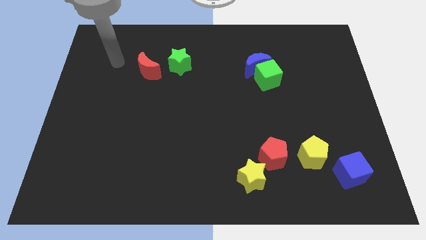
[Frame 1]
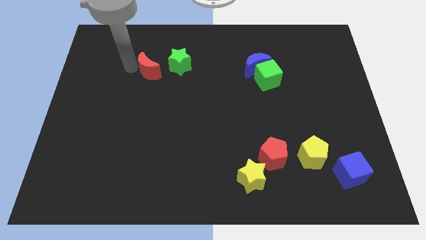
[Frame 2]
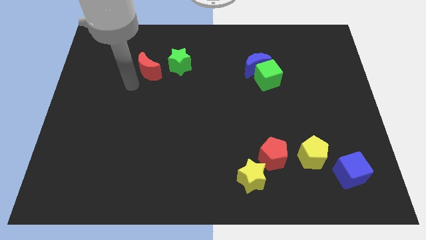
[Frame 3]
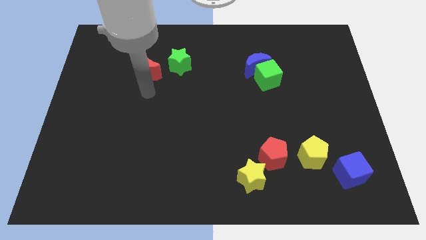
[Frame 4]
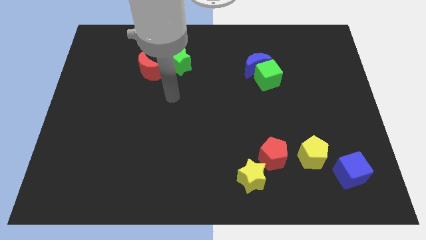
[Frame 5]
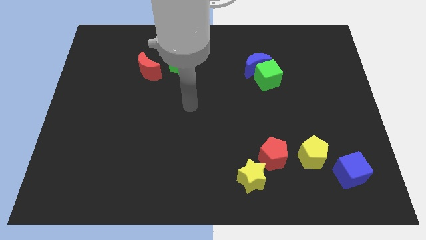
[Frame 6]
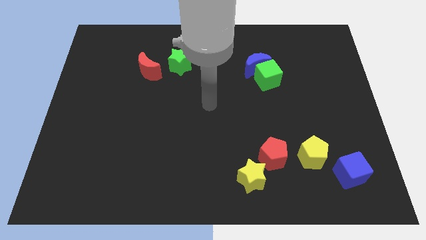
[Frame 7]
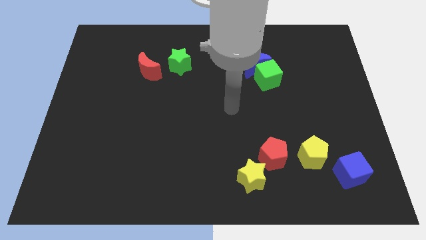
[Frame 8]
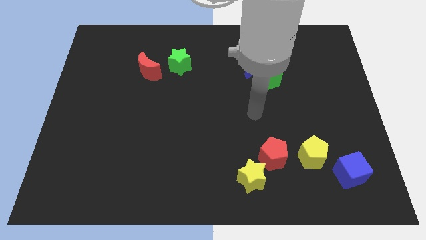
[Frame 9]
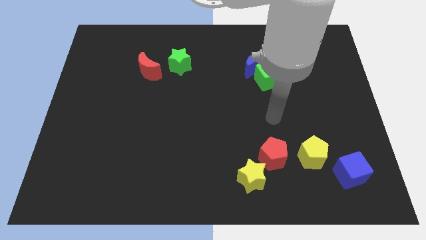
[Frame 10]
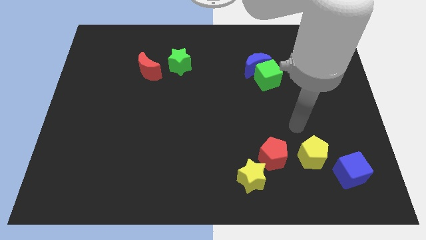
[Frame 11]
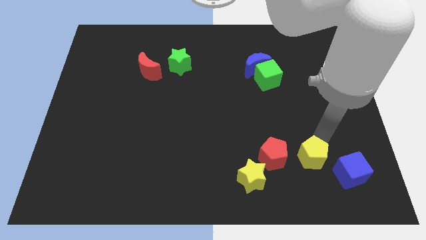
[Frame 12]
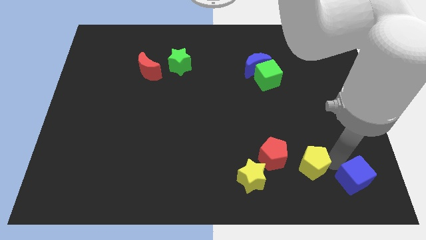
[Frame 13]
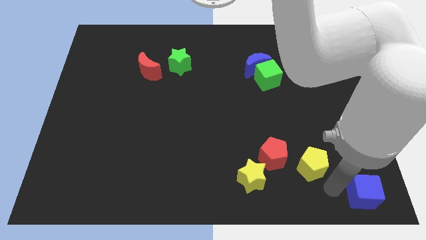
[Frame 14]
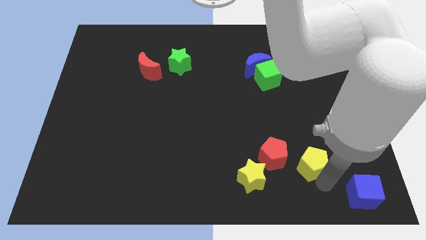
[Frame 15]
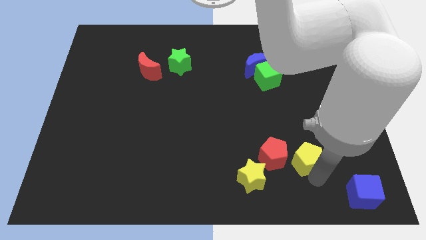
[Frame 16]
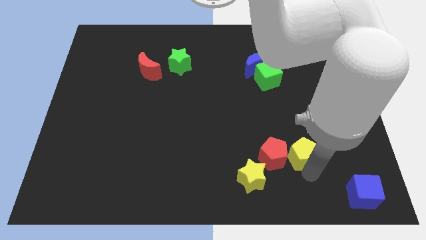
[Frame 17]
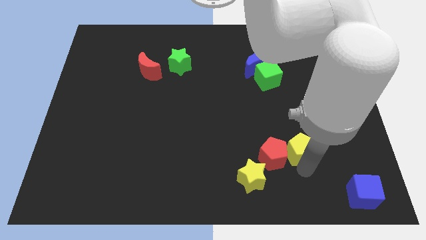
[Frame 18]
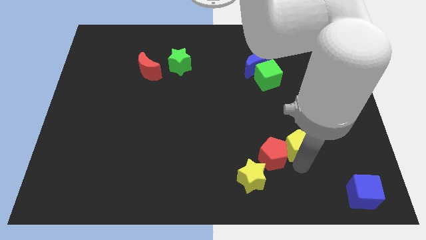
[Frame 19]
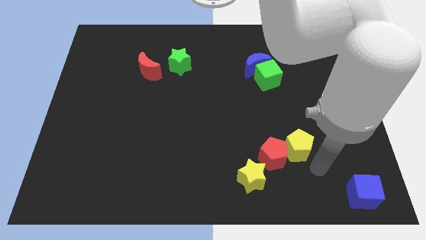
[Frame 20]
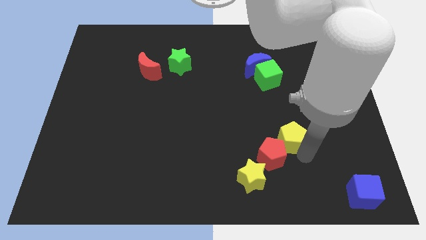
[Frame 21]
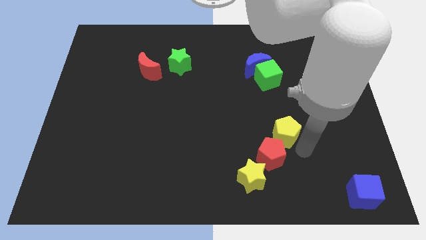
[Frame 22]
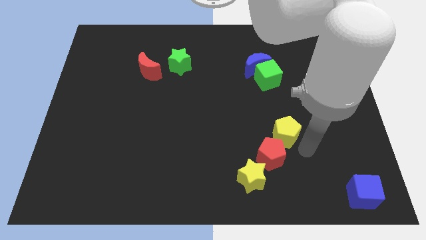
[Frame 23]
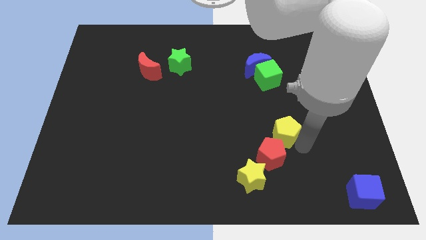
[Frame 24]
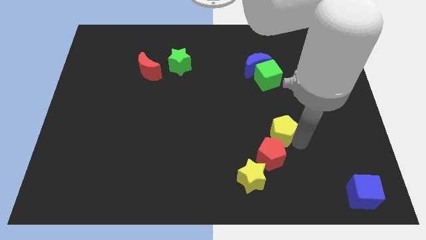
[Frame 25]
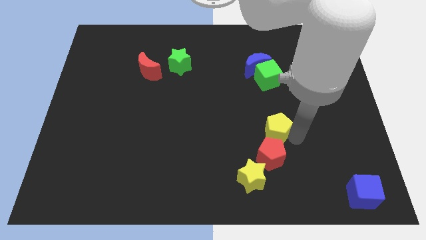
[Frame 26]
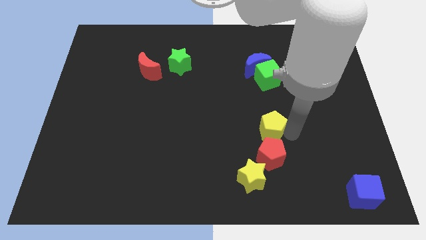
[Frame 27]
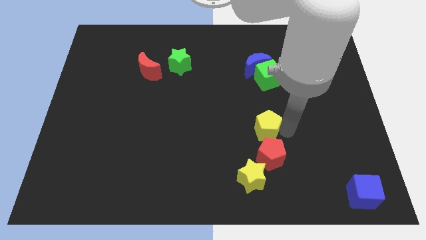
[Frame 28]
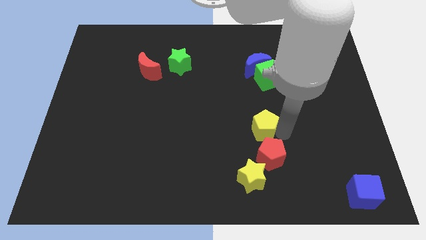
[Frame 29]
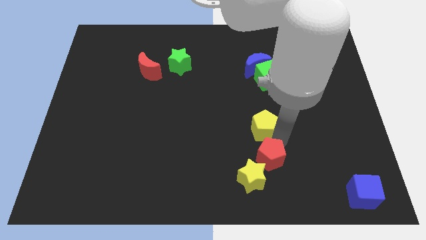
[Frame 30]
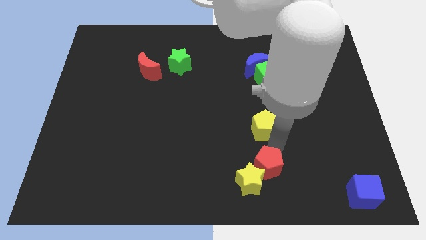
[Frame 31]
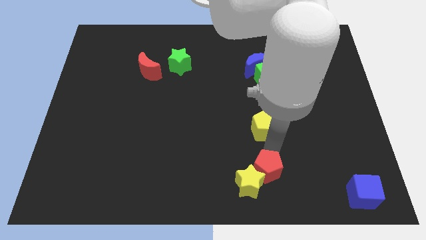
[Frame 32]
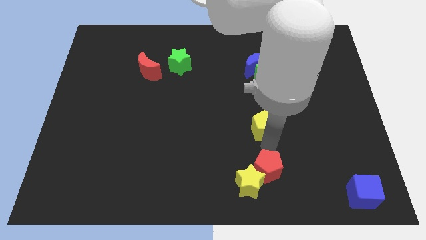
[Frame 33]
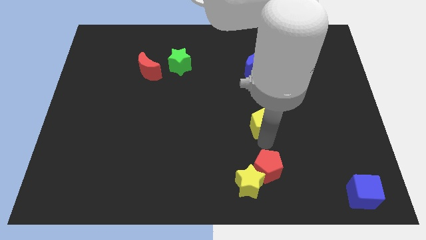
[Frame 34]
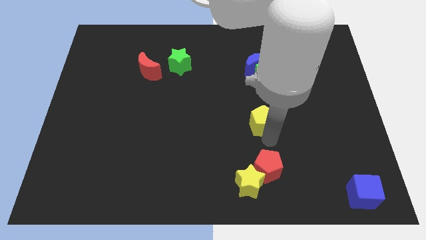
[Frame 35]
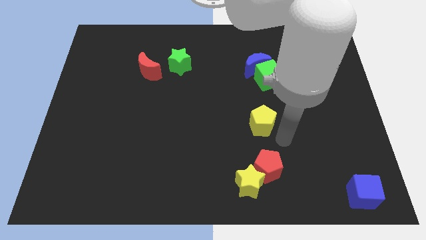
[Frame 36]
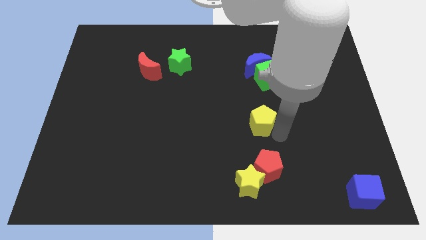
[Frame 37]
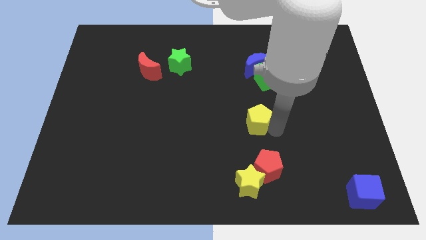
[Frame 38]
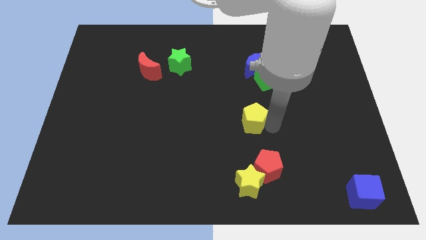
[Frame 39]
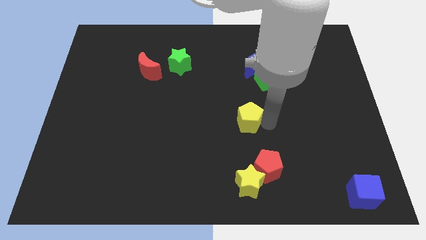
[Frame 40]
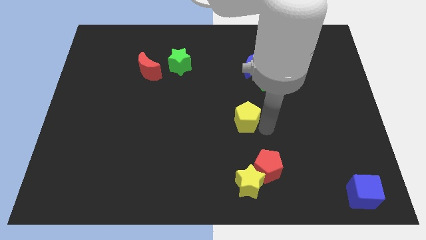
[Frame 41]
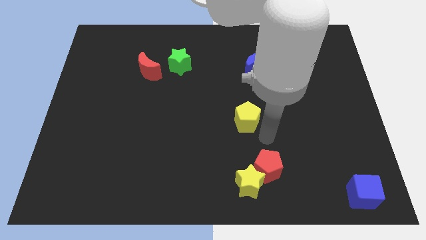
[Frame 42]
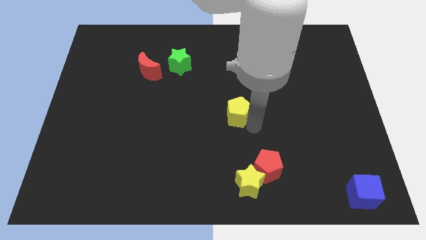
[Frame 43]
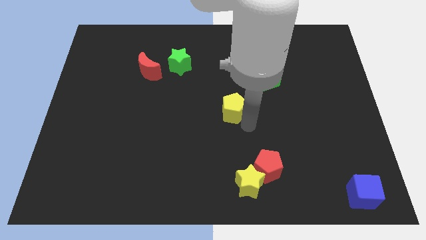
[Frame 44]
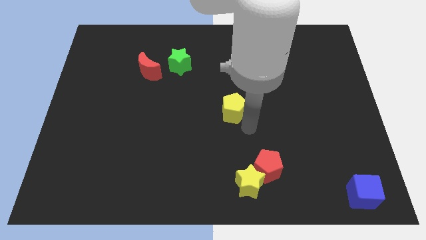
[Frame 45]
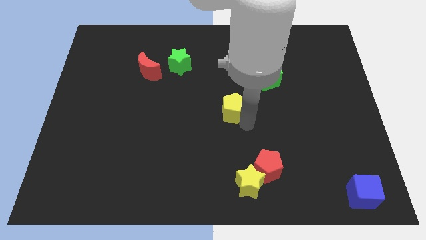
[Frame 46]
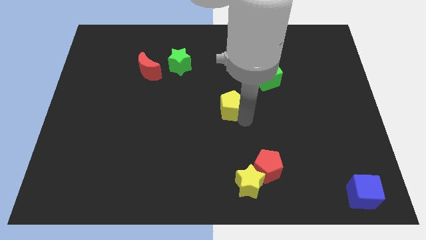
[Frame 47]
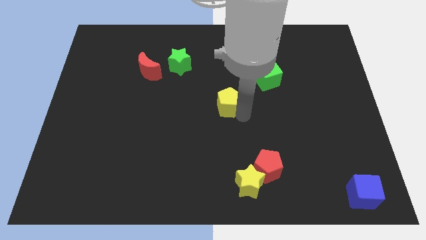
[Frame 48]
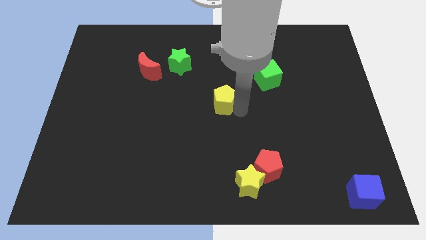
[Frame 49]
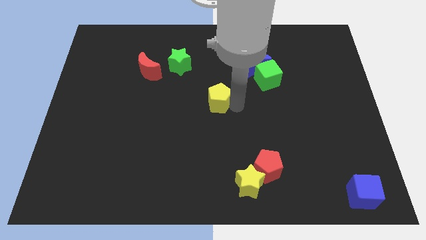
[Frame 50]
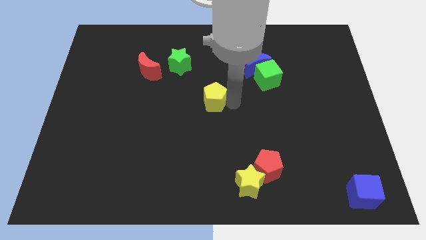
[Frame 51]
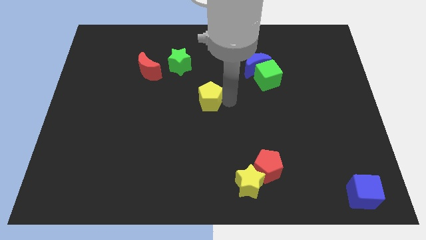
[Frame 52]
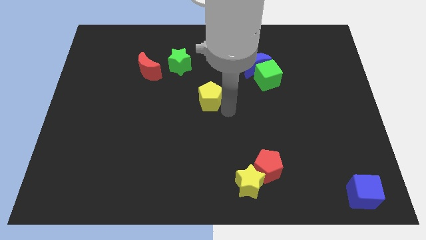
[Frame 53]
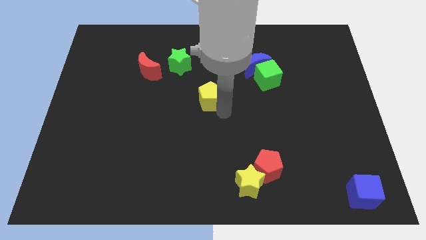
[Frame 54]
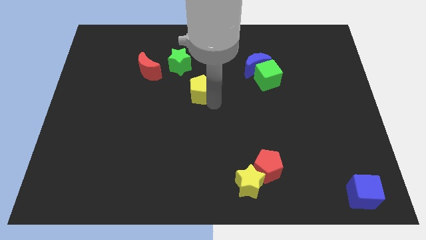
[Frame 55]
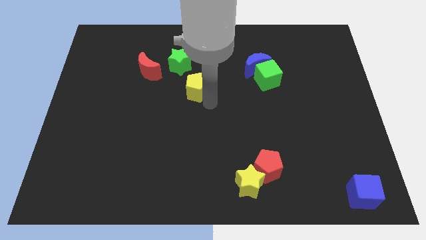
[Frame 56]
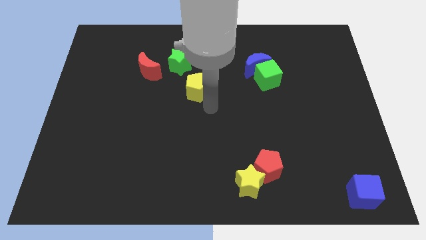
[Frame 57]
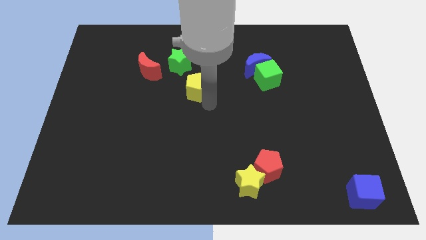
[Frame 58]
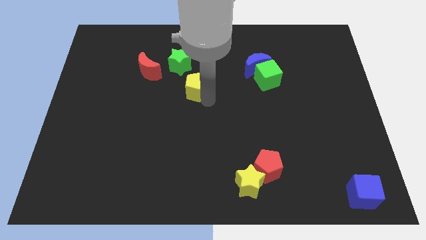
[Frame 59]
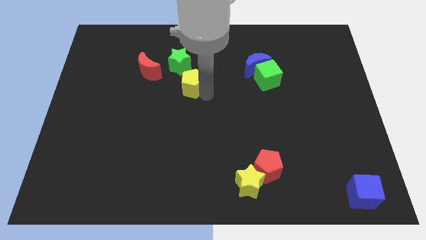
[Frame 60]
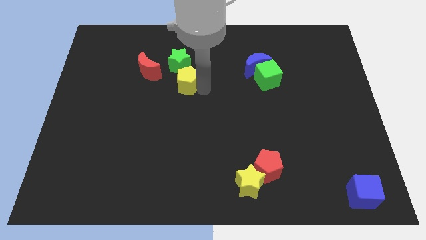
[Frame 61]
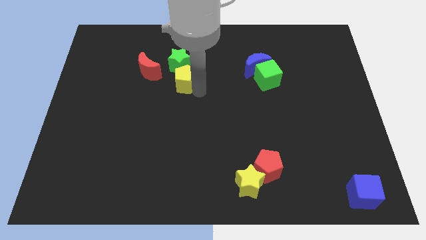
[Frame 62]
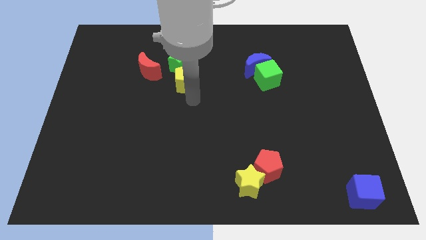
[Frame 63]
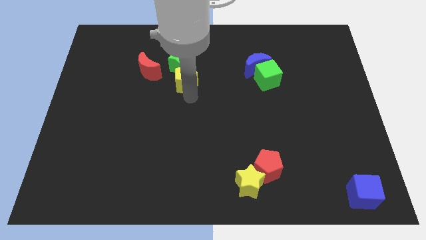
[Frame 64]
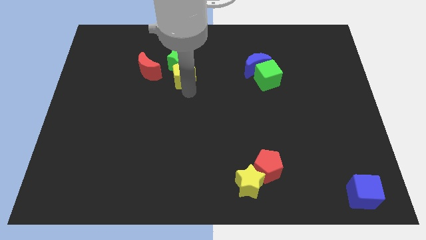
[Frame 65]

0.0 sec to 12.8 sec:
move the yellow pentagon next to the green star

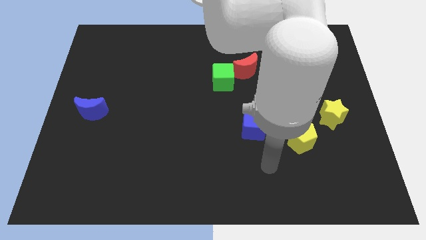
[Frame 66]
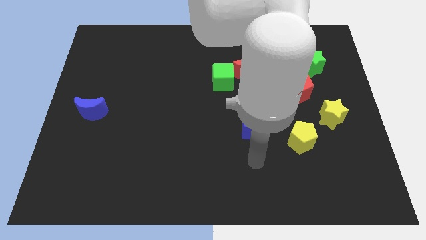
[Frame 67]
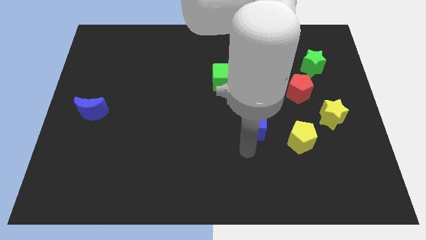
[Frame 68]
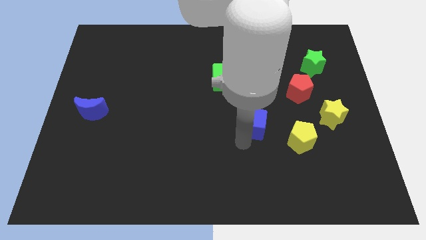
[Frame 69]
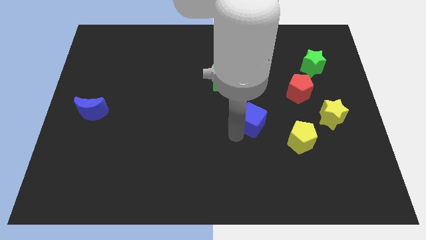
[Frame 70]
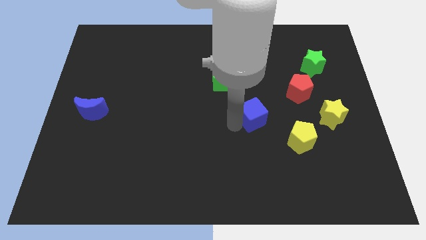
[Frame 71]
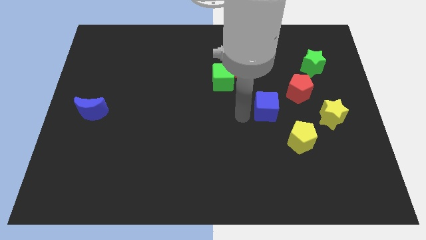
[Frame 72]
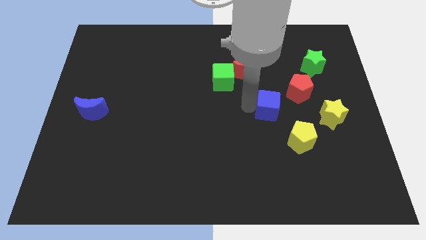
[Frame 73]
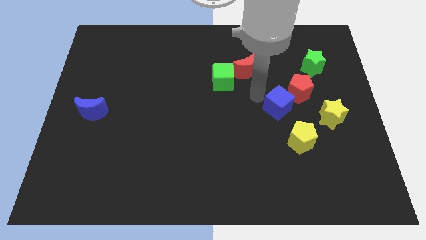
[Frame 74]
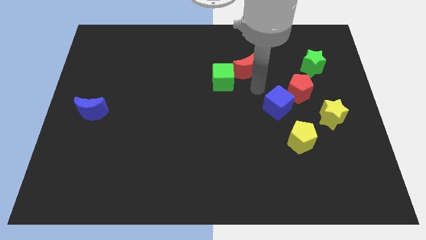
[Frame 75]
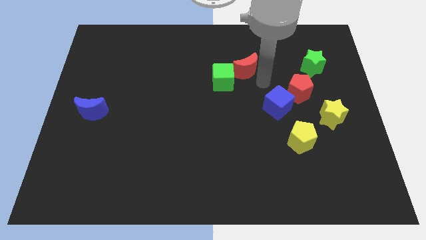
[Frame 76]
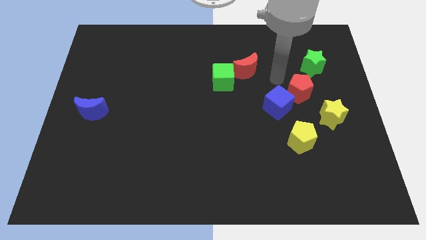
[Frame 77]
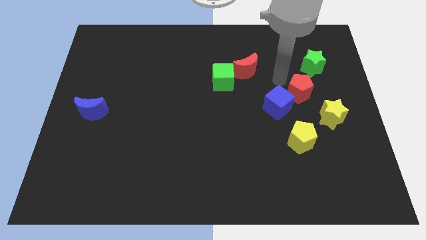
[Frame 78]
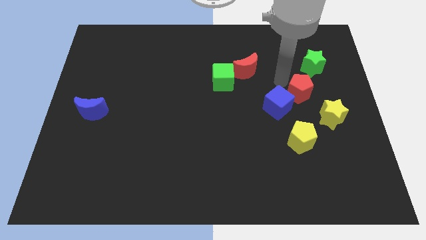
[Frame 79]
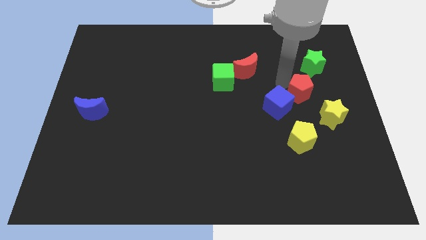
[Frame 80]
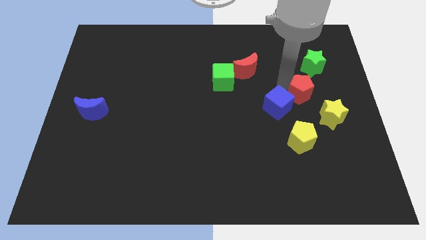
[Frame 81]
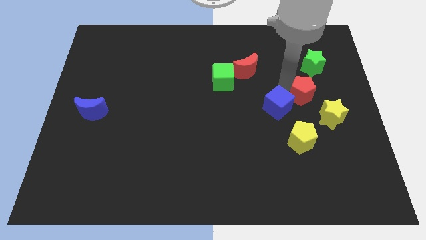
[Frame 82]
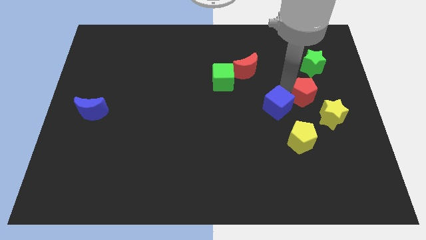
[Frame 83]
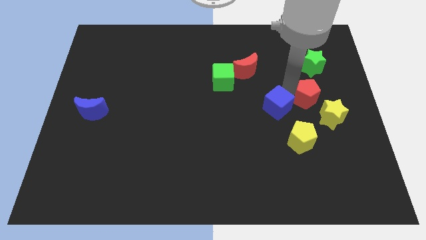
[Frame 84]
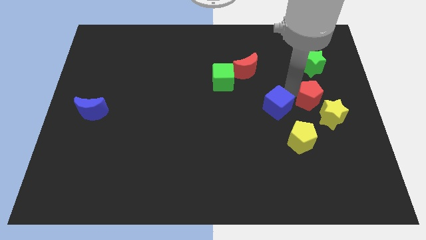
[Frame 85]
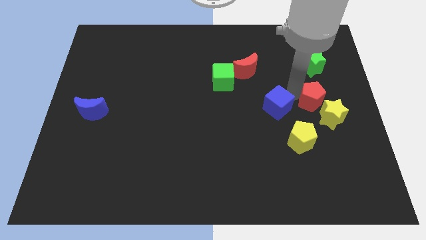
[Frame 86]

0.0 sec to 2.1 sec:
put the red pentagon next to the yellow star
